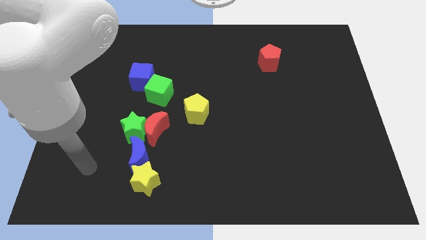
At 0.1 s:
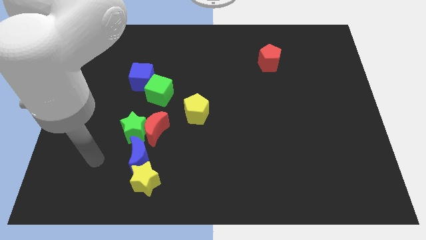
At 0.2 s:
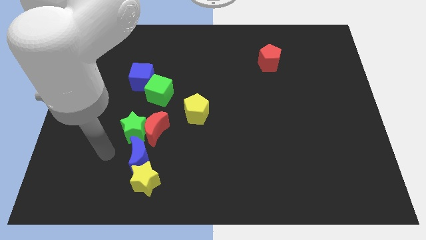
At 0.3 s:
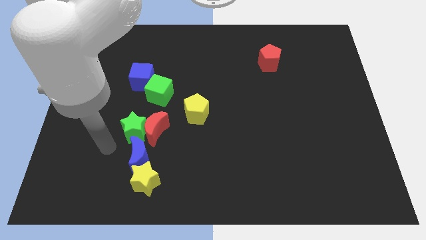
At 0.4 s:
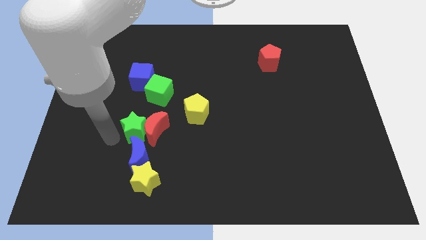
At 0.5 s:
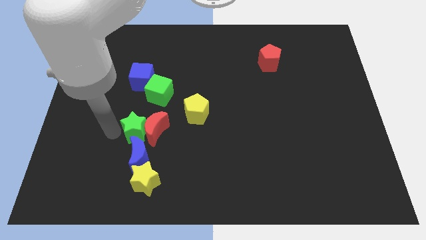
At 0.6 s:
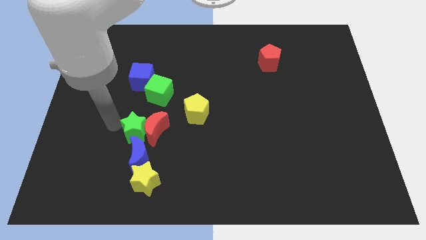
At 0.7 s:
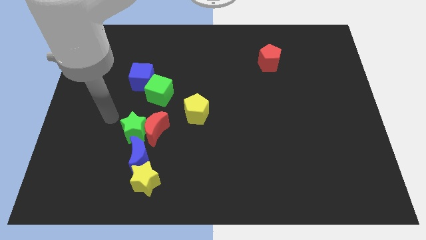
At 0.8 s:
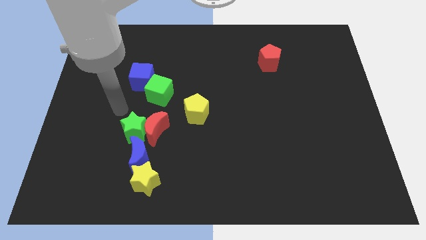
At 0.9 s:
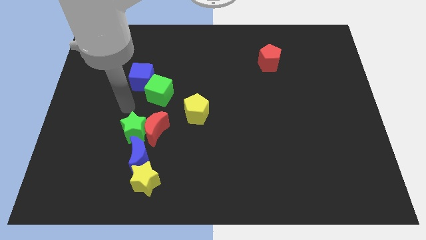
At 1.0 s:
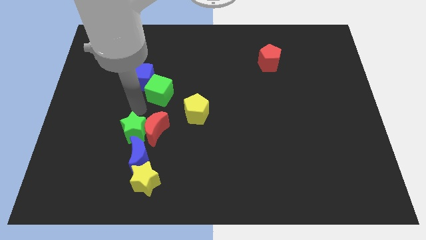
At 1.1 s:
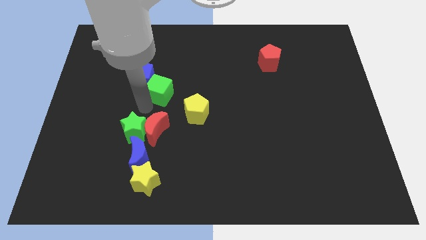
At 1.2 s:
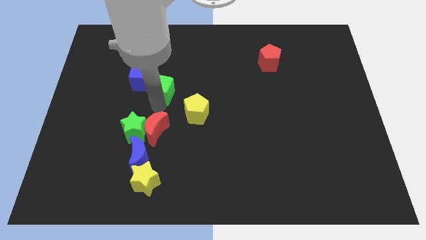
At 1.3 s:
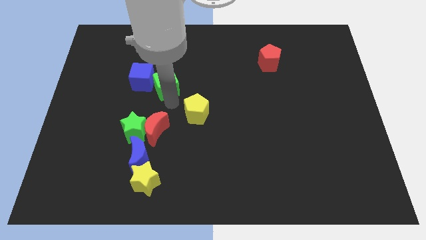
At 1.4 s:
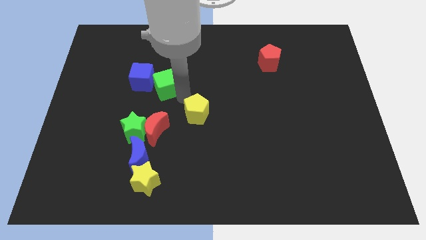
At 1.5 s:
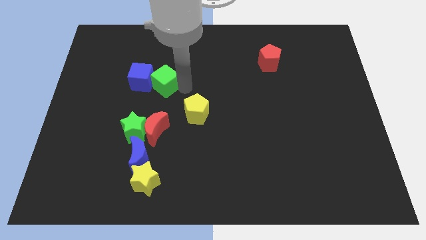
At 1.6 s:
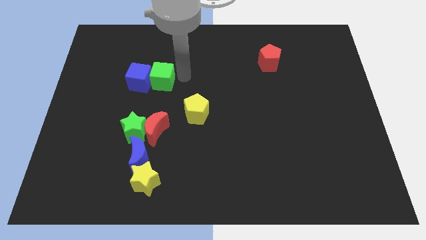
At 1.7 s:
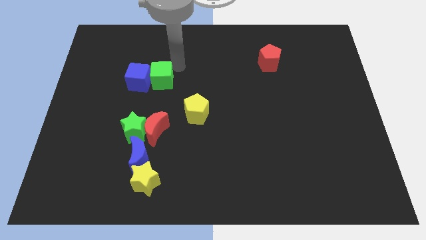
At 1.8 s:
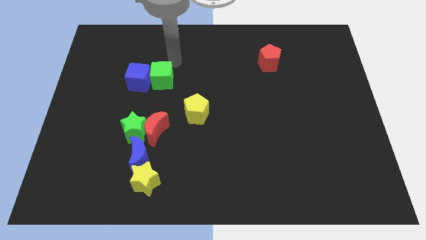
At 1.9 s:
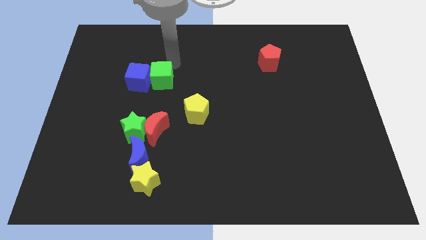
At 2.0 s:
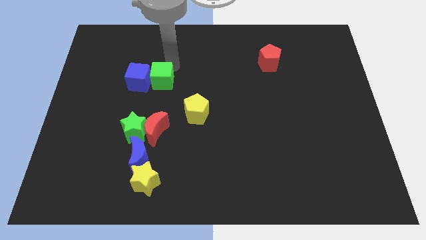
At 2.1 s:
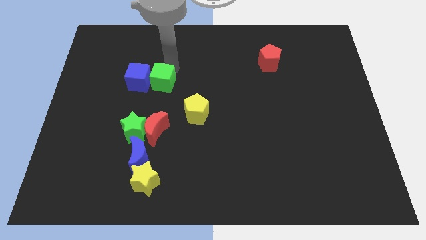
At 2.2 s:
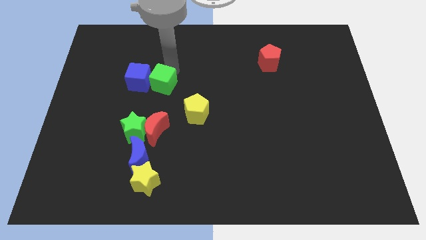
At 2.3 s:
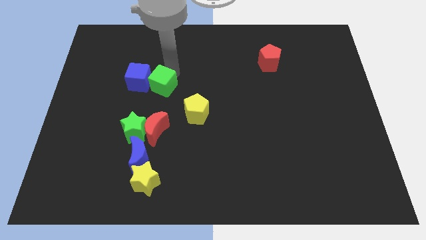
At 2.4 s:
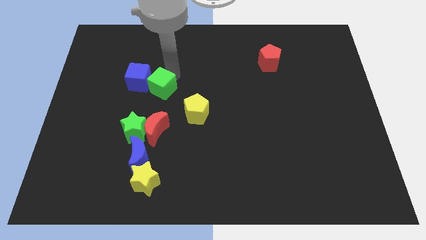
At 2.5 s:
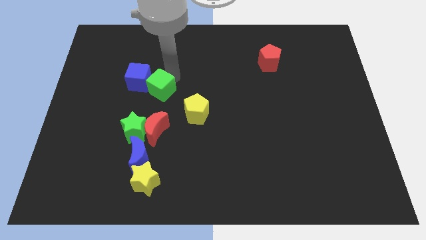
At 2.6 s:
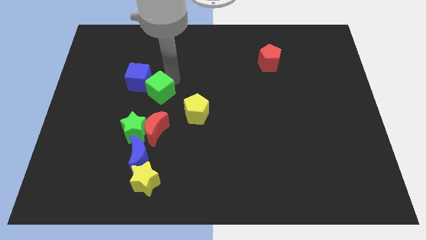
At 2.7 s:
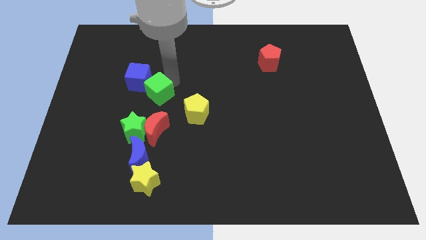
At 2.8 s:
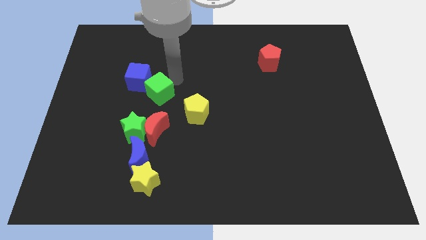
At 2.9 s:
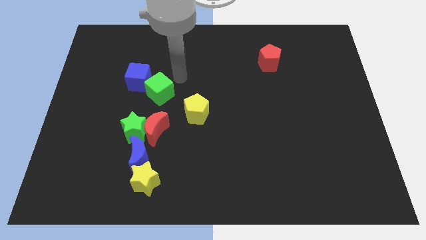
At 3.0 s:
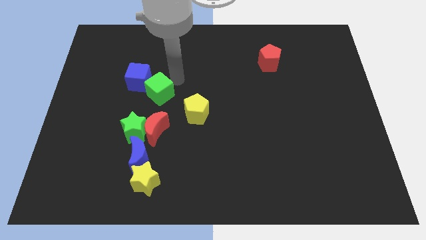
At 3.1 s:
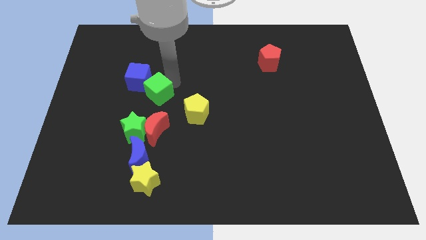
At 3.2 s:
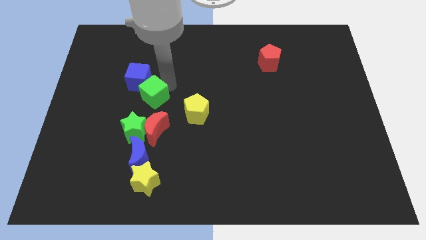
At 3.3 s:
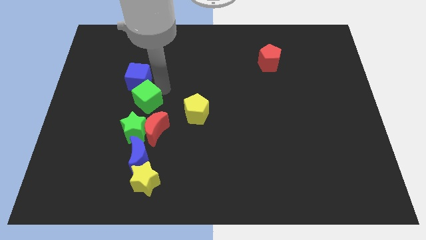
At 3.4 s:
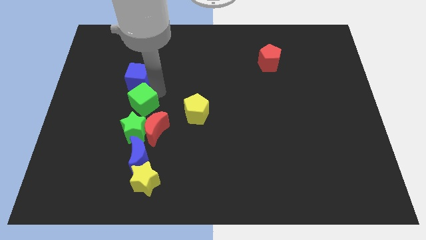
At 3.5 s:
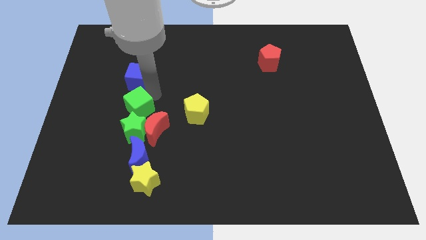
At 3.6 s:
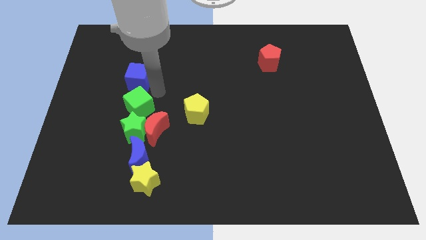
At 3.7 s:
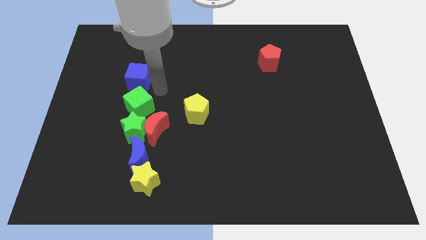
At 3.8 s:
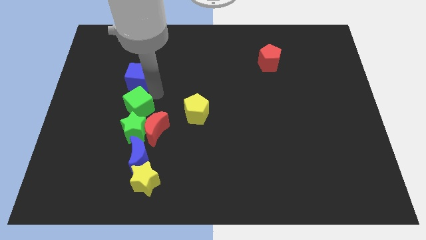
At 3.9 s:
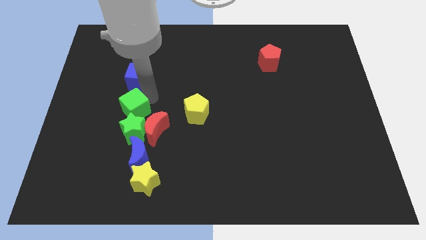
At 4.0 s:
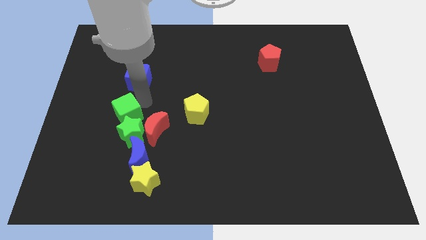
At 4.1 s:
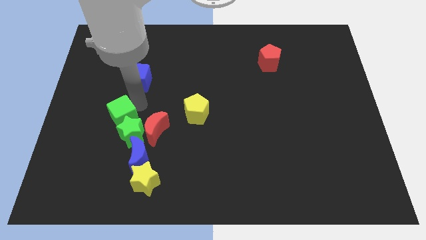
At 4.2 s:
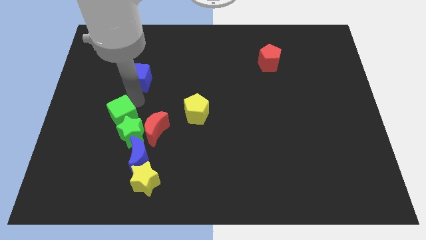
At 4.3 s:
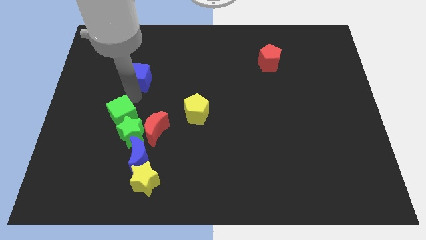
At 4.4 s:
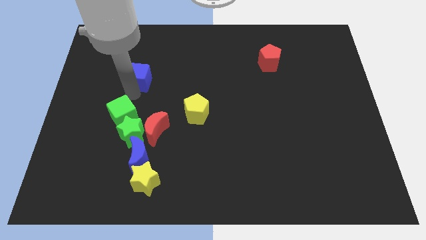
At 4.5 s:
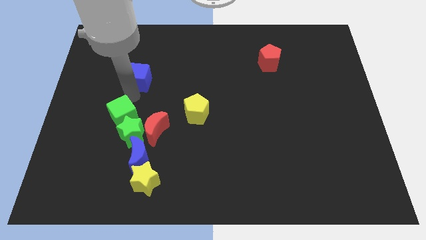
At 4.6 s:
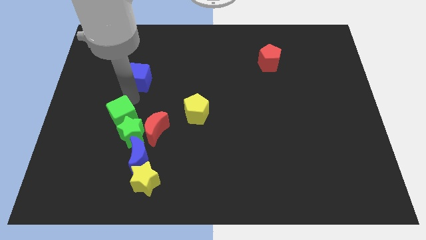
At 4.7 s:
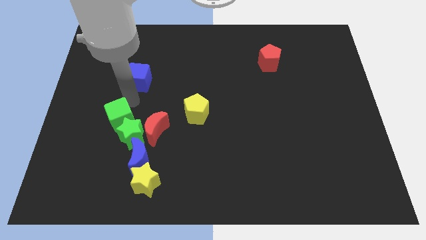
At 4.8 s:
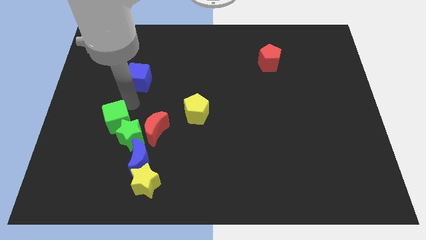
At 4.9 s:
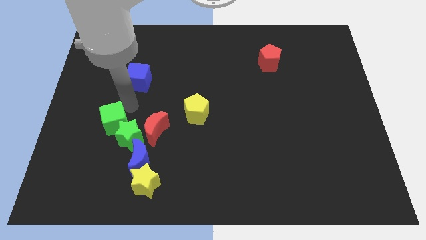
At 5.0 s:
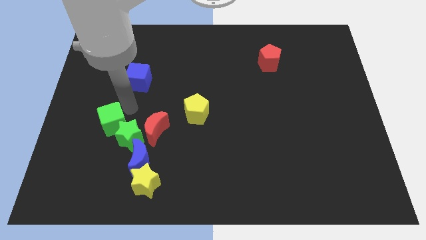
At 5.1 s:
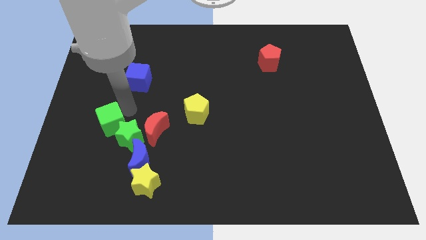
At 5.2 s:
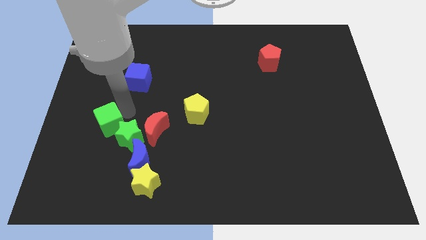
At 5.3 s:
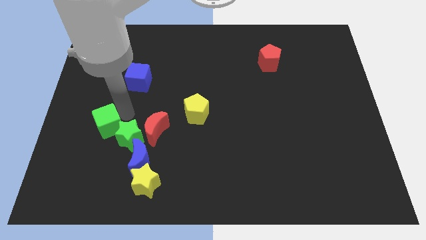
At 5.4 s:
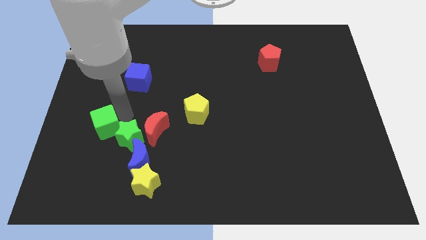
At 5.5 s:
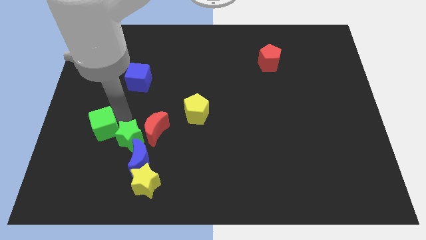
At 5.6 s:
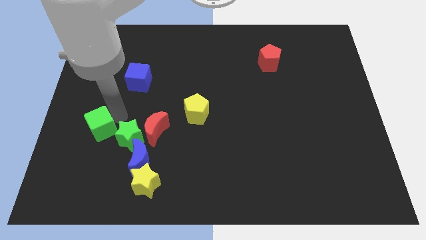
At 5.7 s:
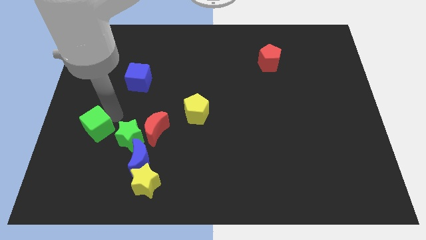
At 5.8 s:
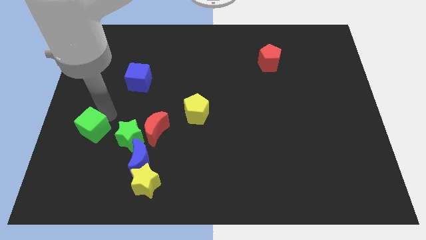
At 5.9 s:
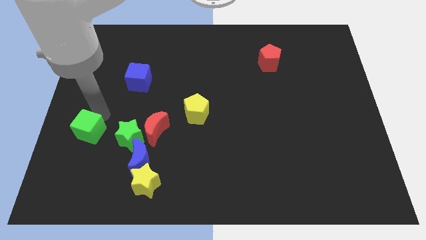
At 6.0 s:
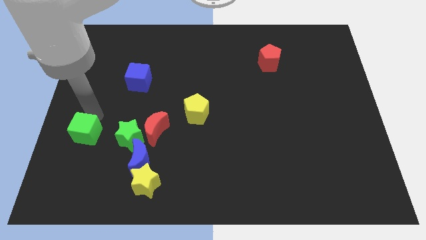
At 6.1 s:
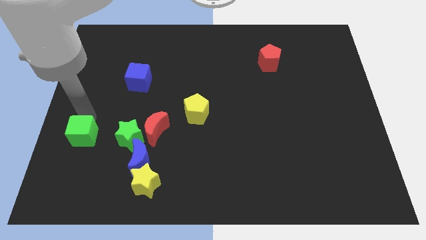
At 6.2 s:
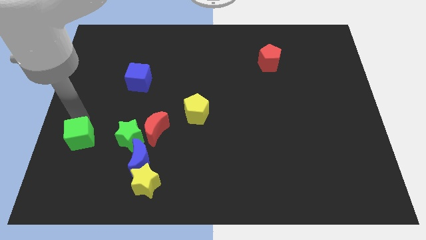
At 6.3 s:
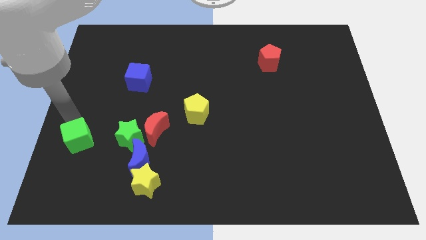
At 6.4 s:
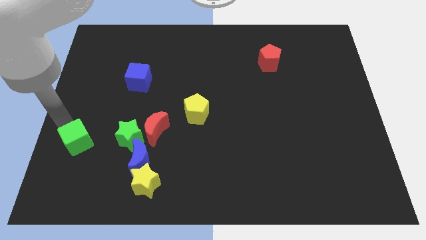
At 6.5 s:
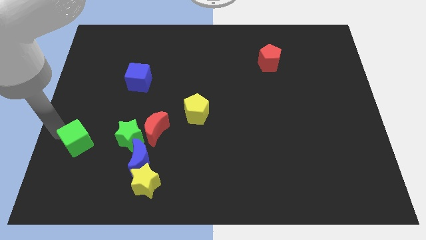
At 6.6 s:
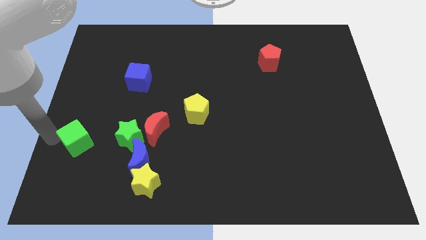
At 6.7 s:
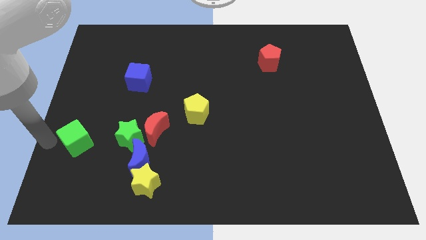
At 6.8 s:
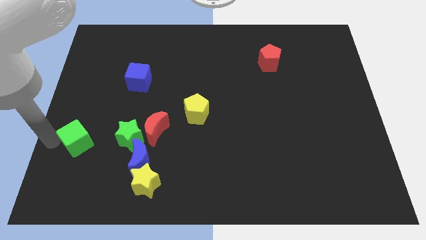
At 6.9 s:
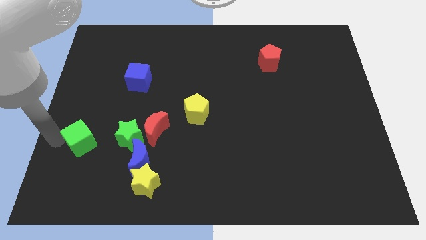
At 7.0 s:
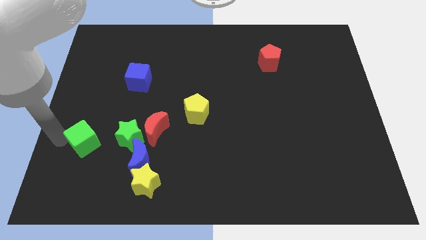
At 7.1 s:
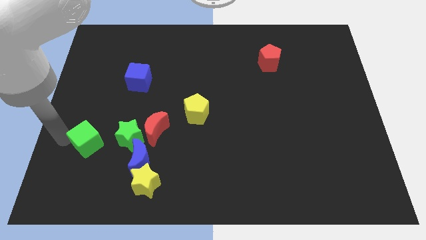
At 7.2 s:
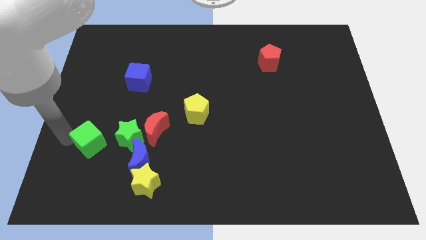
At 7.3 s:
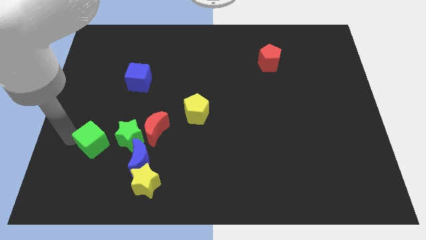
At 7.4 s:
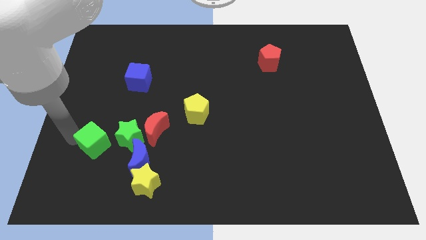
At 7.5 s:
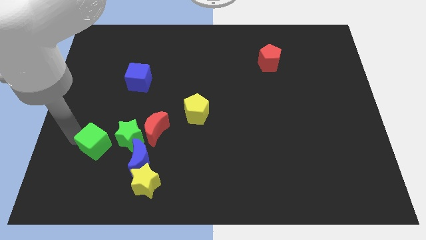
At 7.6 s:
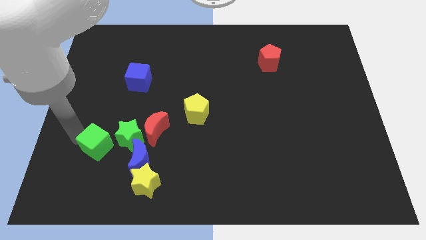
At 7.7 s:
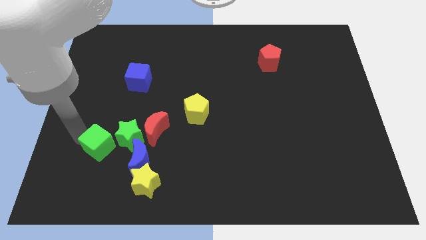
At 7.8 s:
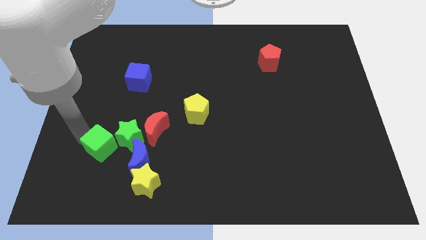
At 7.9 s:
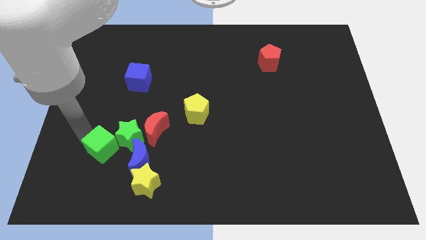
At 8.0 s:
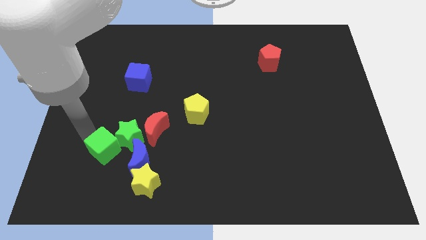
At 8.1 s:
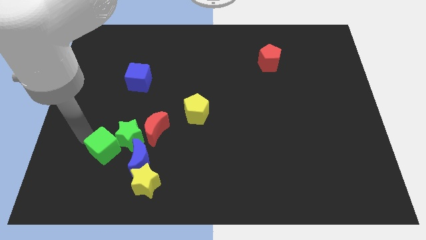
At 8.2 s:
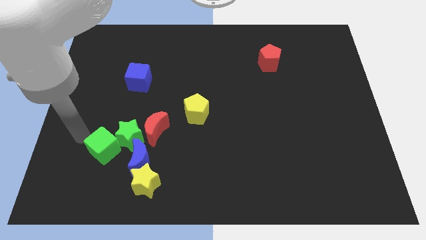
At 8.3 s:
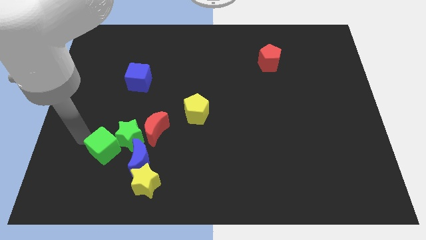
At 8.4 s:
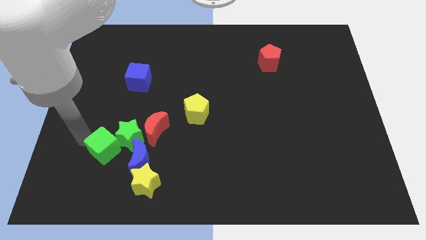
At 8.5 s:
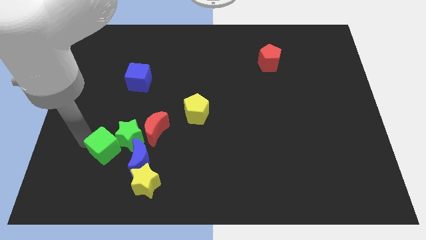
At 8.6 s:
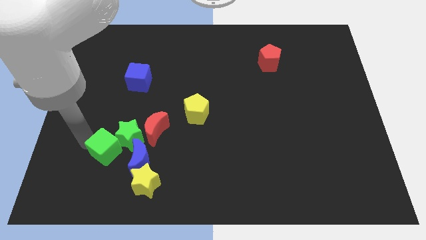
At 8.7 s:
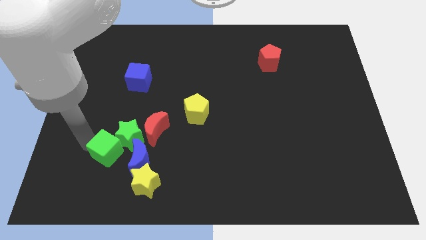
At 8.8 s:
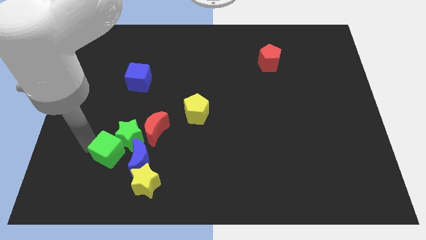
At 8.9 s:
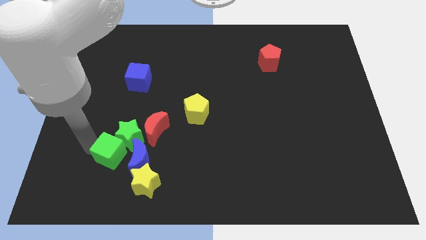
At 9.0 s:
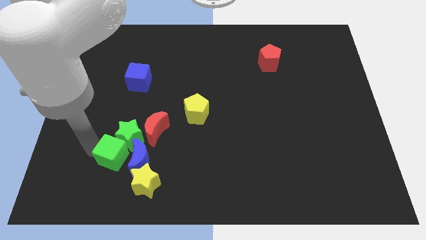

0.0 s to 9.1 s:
push the green cube next to the blue moon
